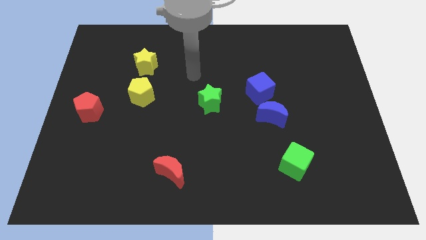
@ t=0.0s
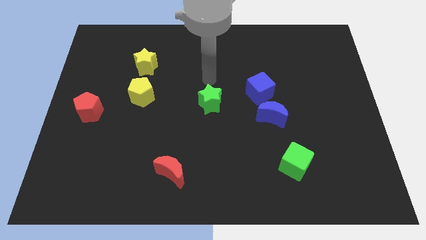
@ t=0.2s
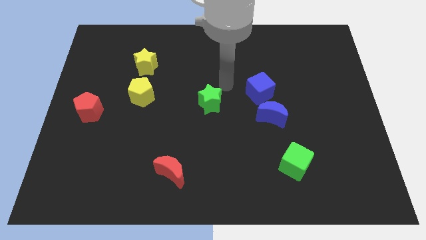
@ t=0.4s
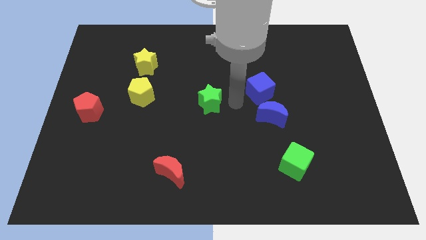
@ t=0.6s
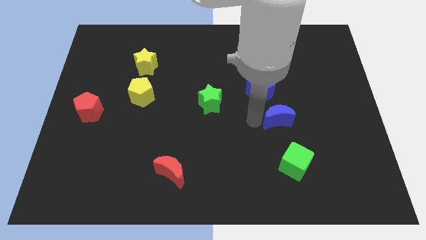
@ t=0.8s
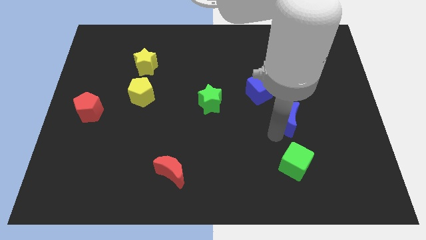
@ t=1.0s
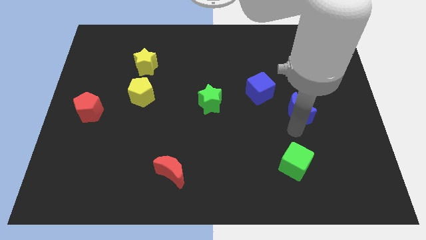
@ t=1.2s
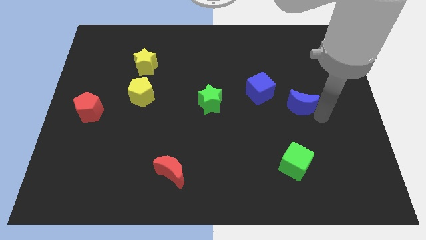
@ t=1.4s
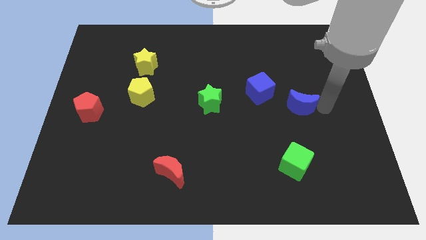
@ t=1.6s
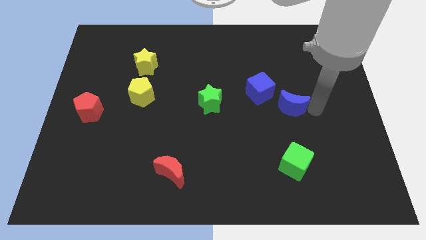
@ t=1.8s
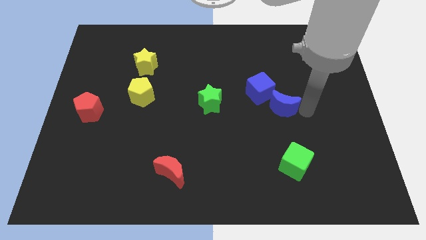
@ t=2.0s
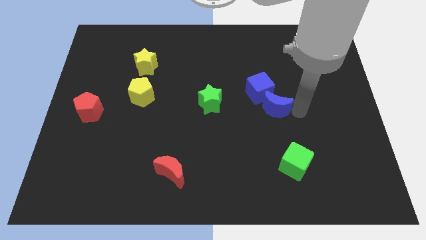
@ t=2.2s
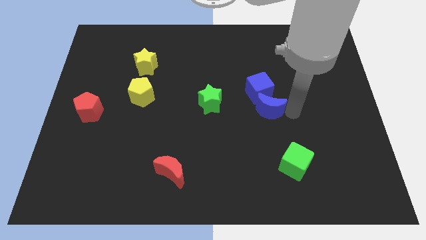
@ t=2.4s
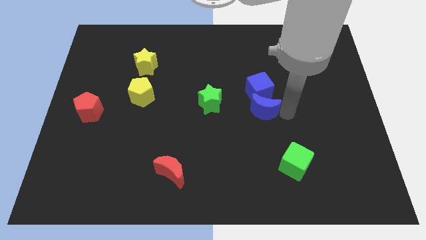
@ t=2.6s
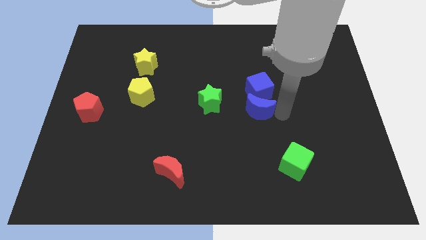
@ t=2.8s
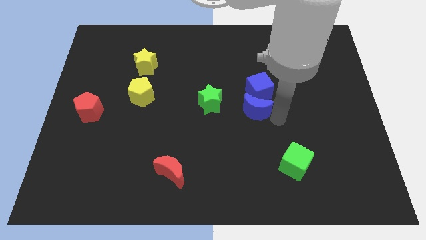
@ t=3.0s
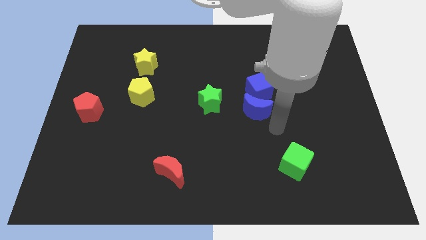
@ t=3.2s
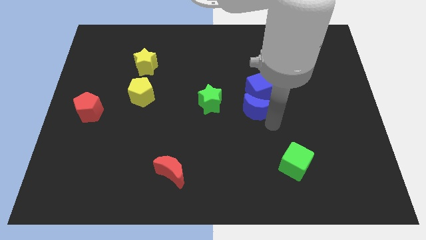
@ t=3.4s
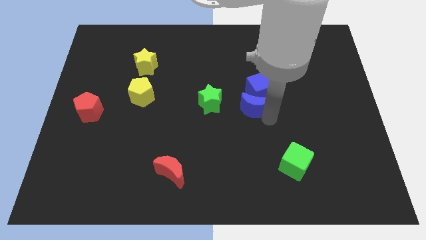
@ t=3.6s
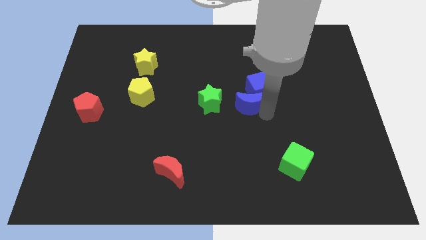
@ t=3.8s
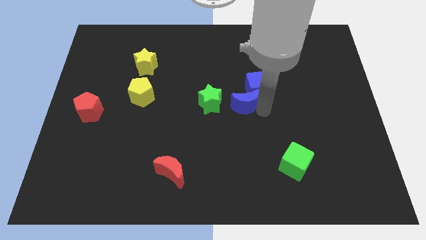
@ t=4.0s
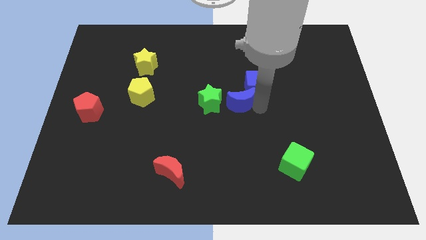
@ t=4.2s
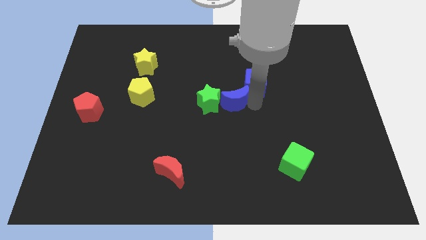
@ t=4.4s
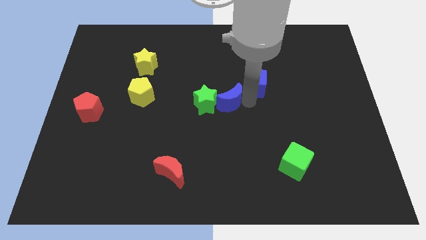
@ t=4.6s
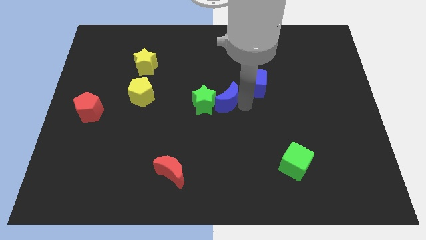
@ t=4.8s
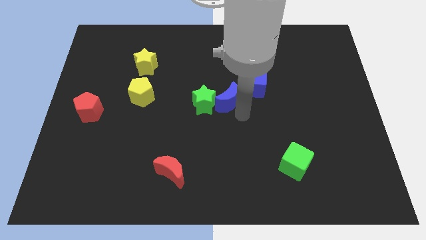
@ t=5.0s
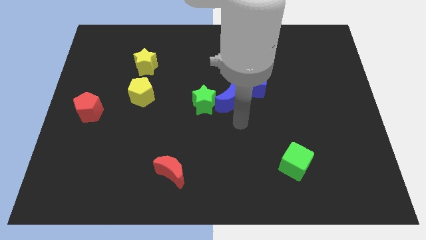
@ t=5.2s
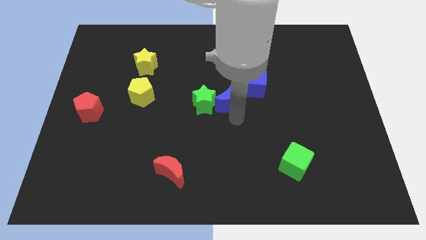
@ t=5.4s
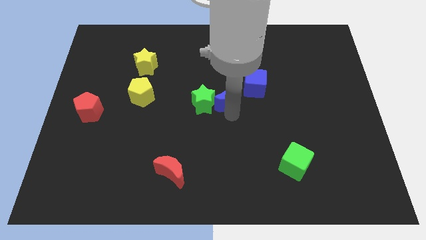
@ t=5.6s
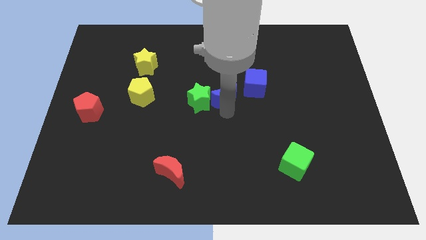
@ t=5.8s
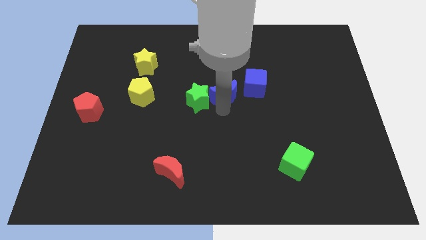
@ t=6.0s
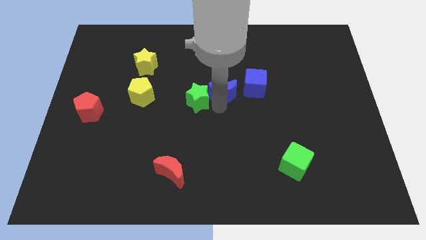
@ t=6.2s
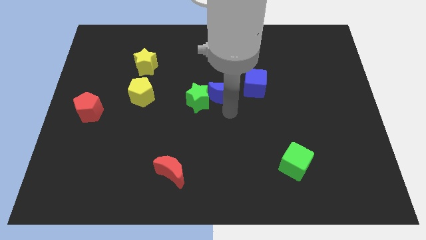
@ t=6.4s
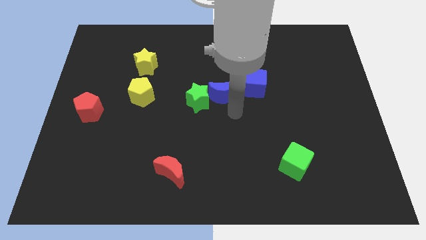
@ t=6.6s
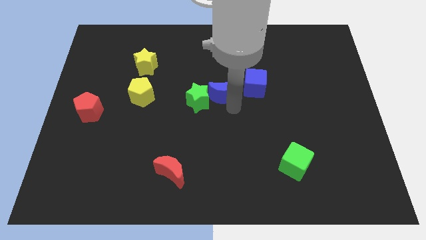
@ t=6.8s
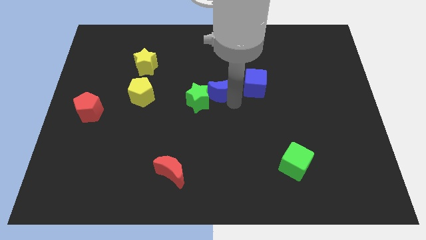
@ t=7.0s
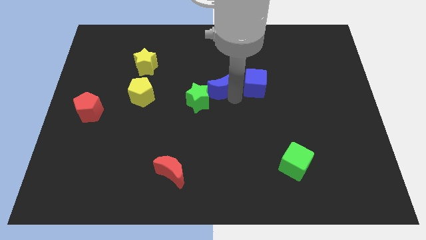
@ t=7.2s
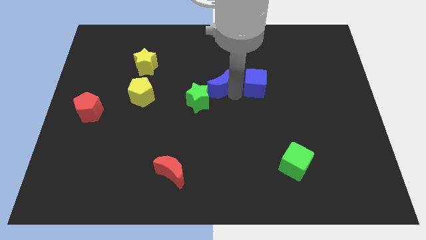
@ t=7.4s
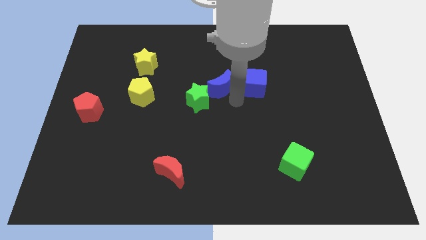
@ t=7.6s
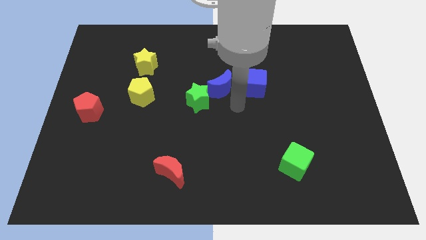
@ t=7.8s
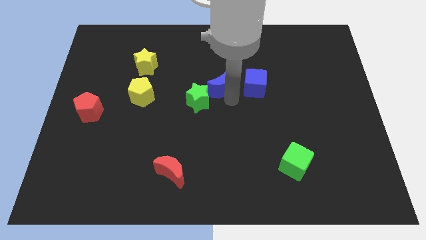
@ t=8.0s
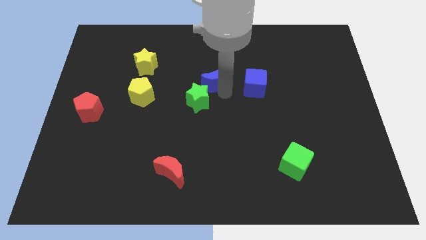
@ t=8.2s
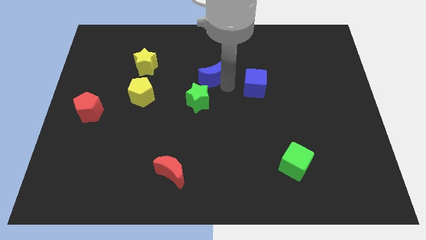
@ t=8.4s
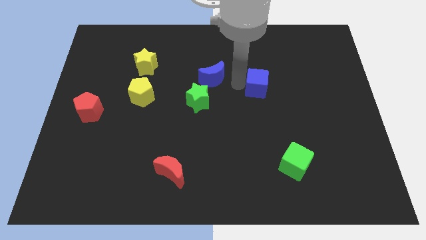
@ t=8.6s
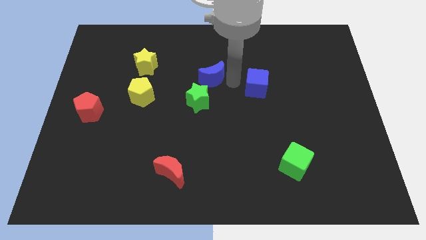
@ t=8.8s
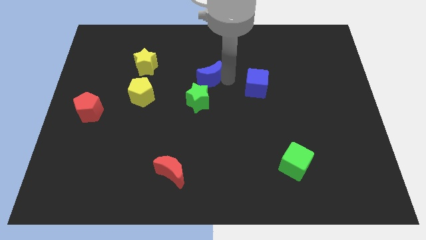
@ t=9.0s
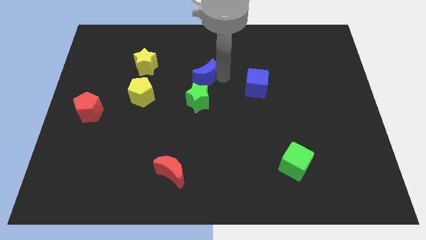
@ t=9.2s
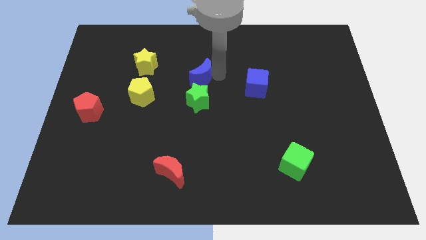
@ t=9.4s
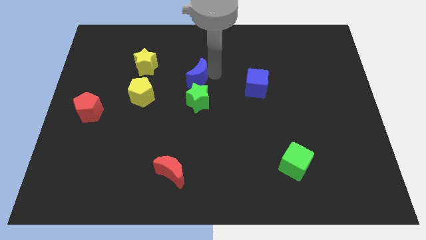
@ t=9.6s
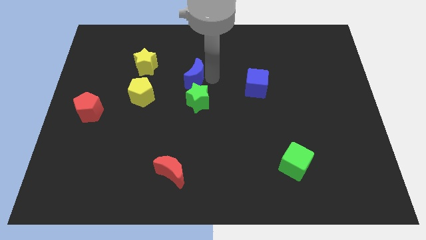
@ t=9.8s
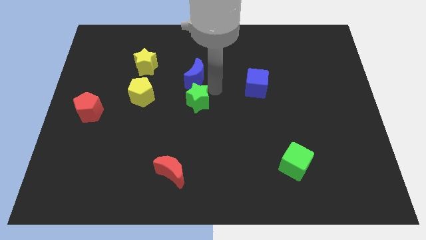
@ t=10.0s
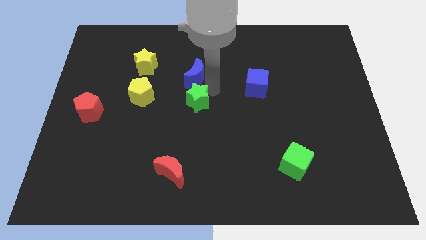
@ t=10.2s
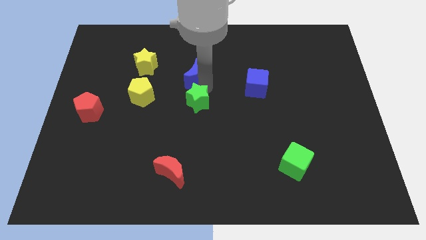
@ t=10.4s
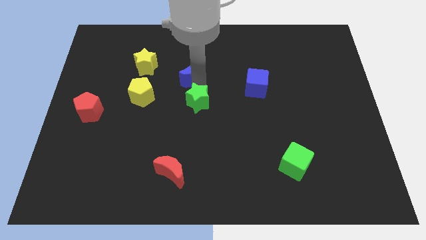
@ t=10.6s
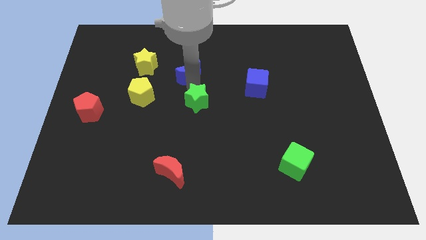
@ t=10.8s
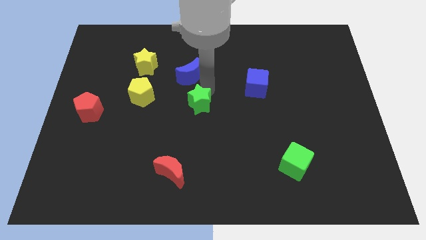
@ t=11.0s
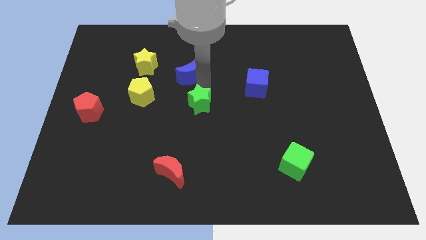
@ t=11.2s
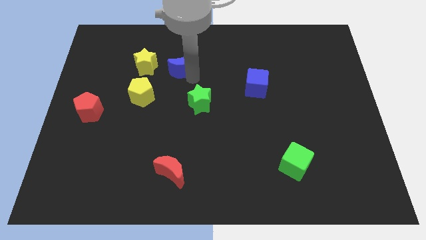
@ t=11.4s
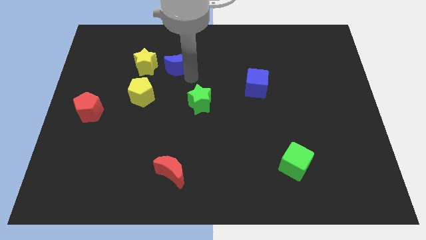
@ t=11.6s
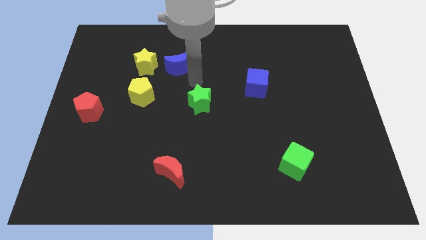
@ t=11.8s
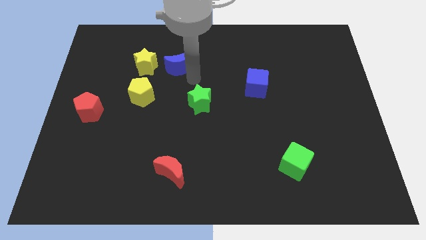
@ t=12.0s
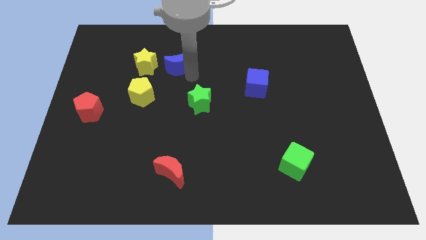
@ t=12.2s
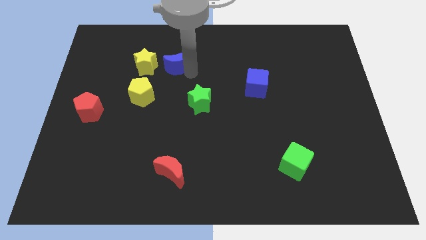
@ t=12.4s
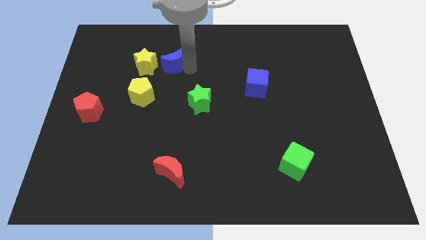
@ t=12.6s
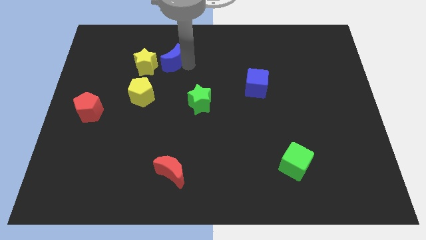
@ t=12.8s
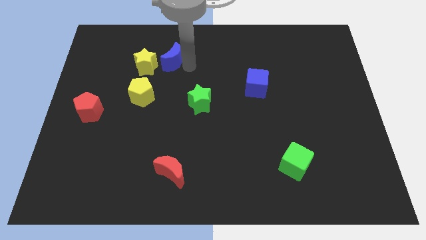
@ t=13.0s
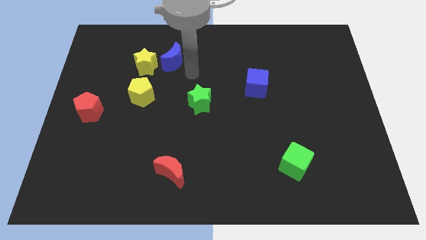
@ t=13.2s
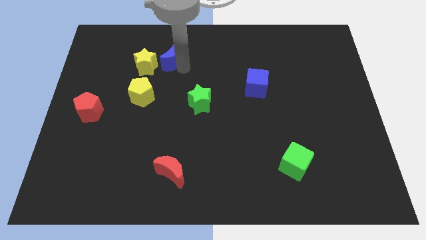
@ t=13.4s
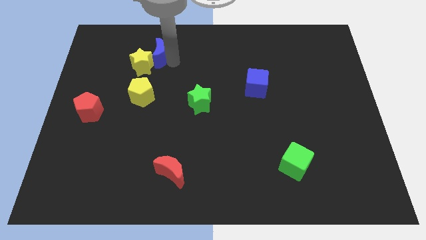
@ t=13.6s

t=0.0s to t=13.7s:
push the blue moon to the top of the yellow pentagon

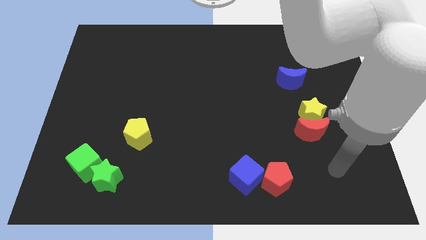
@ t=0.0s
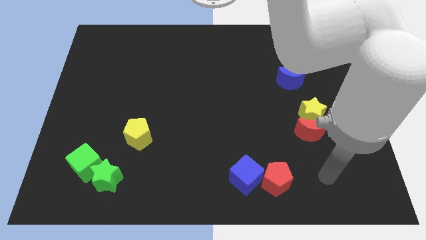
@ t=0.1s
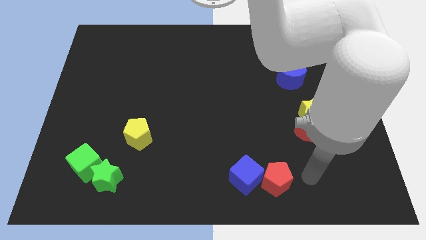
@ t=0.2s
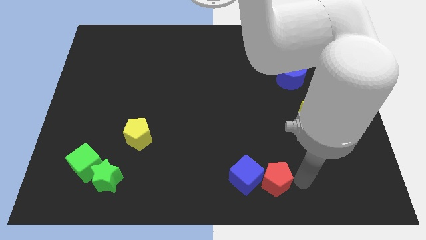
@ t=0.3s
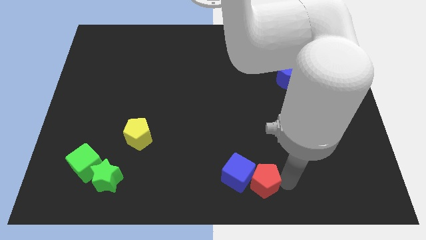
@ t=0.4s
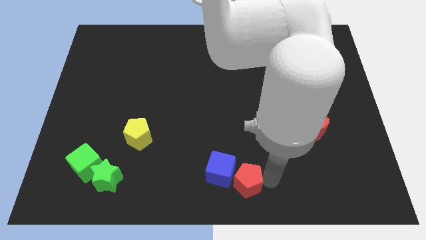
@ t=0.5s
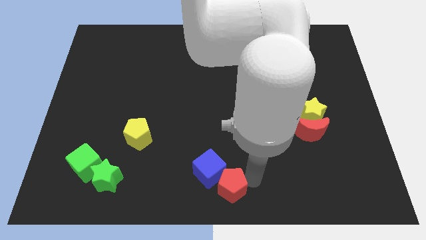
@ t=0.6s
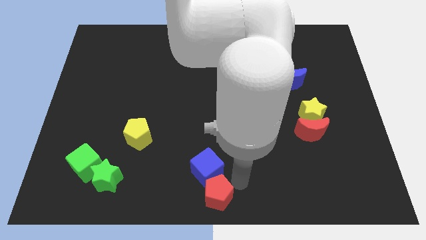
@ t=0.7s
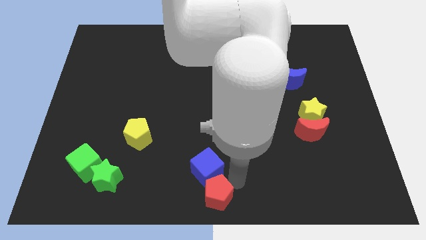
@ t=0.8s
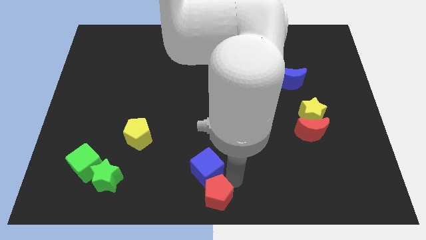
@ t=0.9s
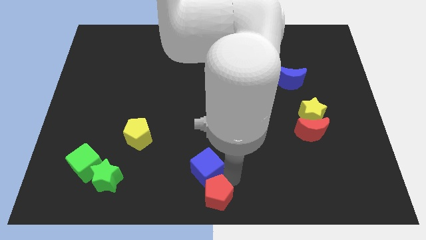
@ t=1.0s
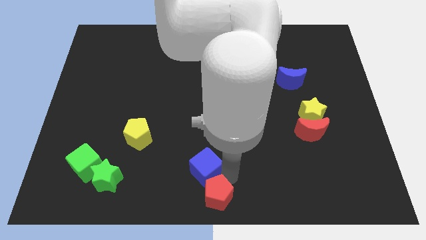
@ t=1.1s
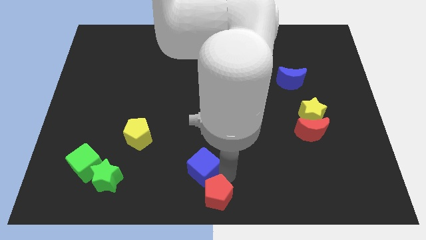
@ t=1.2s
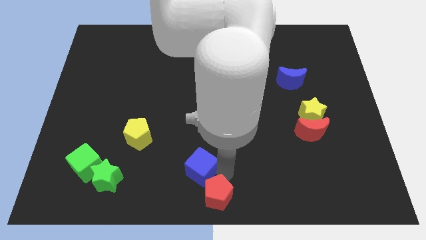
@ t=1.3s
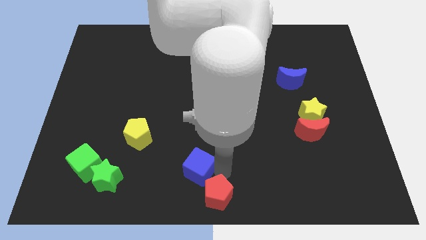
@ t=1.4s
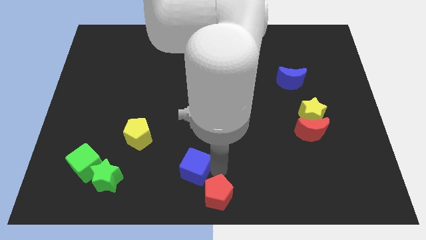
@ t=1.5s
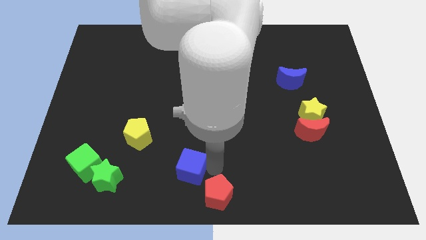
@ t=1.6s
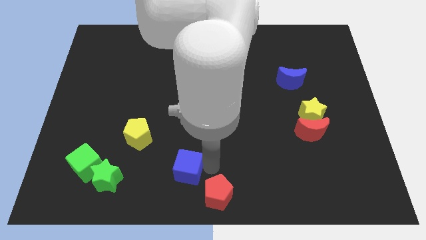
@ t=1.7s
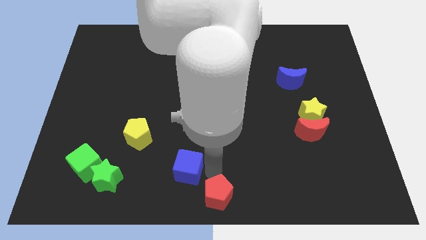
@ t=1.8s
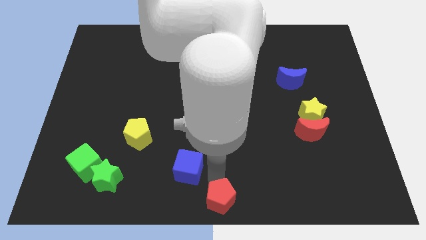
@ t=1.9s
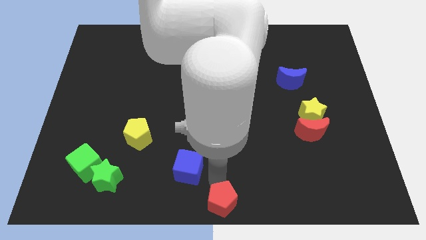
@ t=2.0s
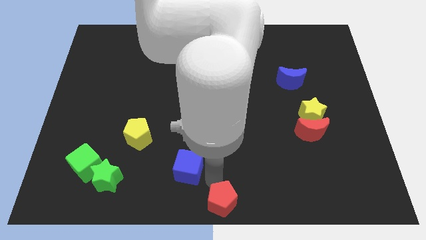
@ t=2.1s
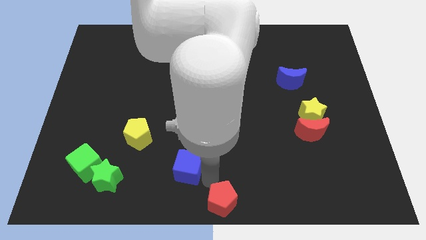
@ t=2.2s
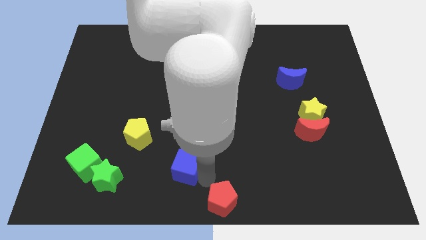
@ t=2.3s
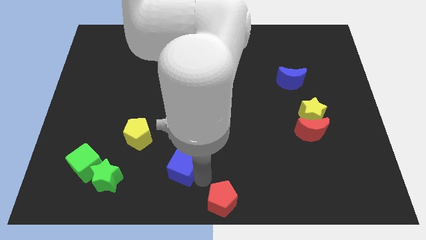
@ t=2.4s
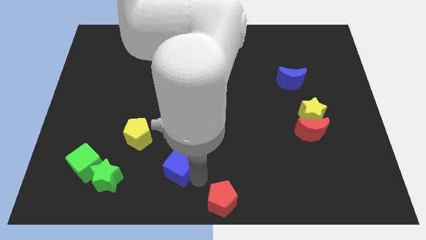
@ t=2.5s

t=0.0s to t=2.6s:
slide the blue cube to the bottom right of the yellow pentagon
